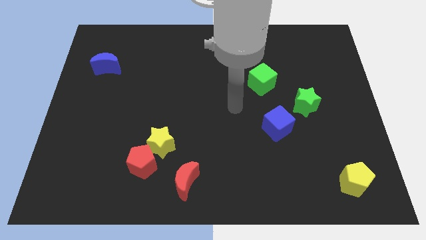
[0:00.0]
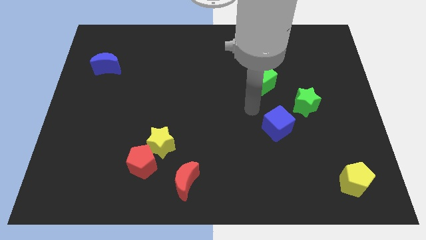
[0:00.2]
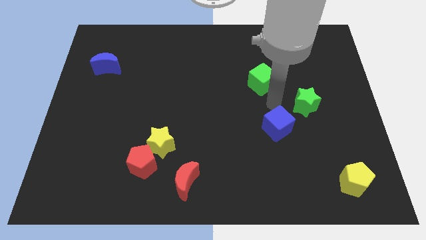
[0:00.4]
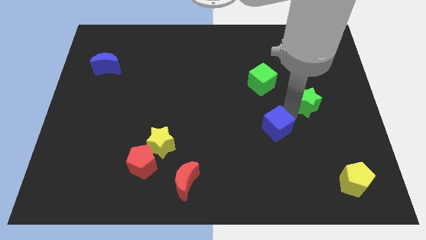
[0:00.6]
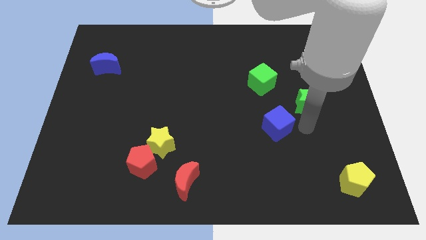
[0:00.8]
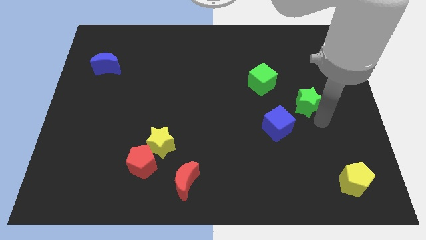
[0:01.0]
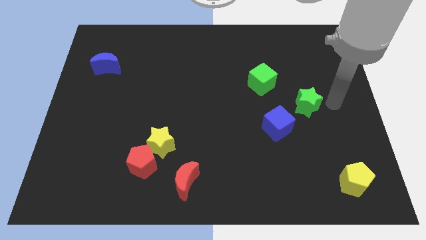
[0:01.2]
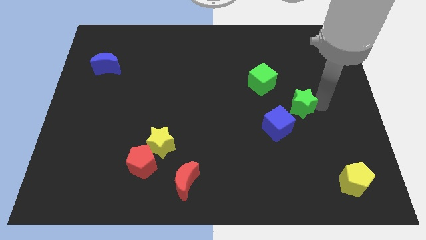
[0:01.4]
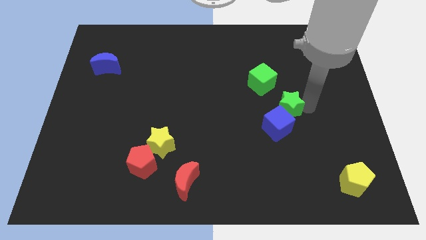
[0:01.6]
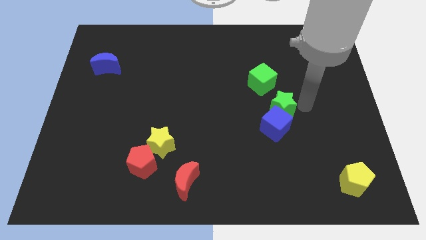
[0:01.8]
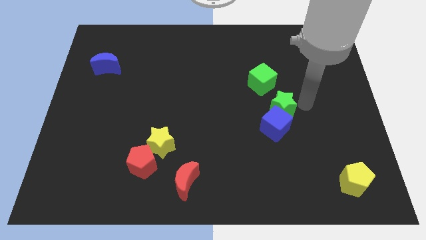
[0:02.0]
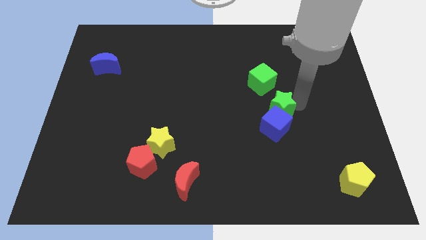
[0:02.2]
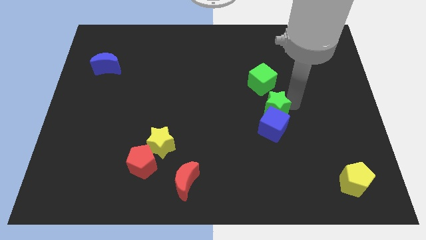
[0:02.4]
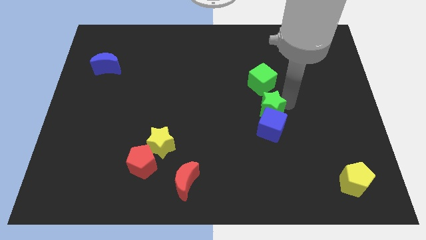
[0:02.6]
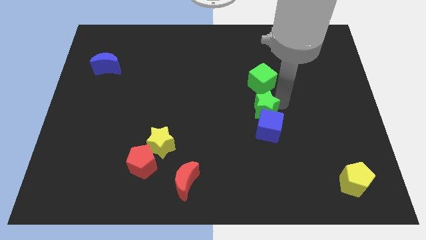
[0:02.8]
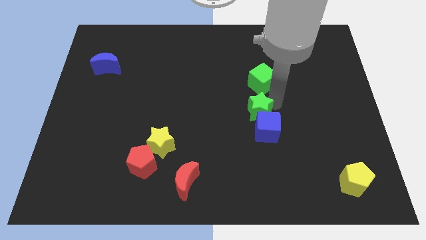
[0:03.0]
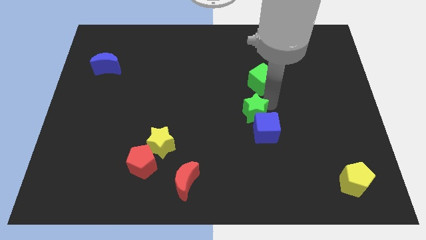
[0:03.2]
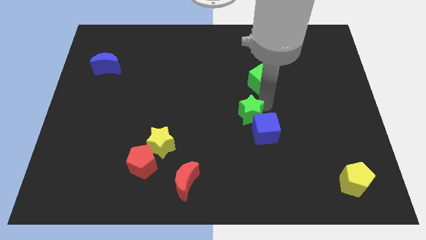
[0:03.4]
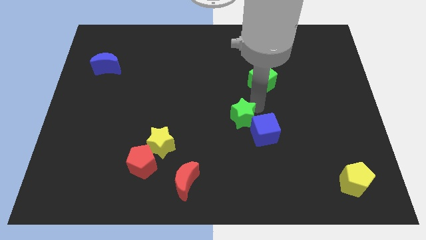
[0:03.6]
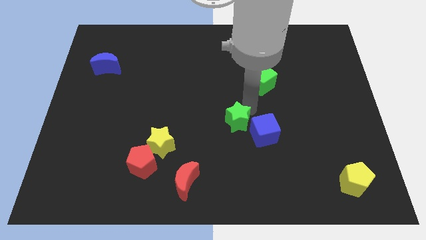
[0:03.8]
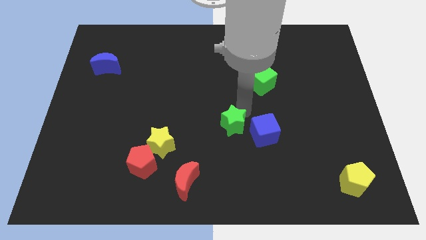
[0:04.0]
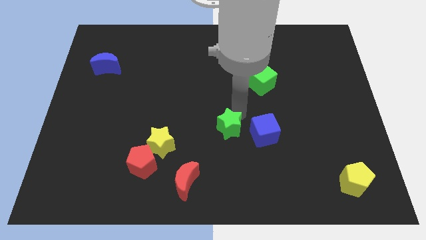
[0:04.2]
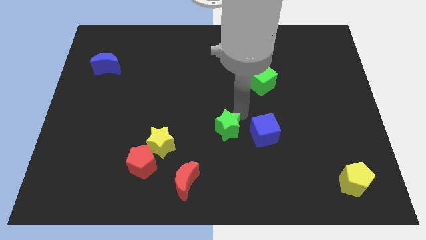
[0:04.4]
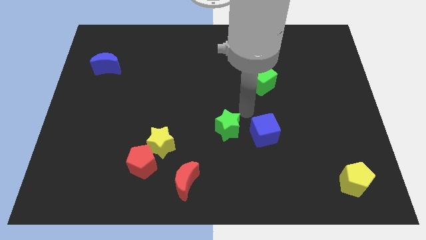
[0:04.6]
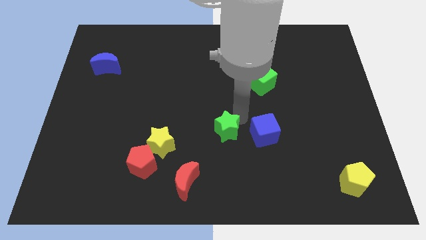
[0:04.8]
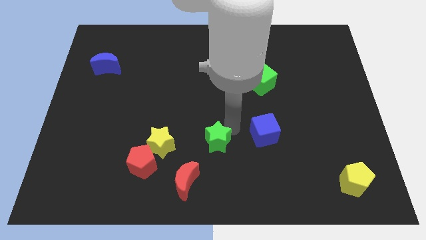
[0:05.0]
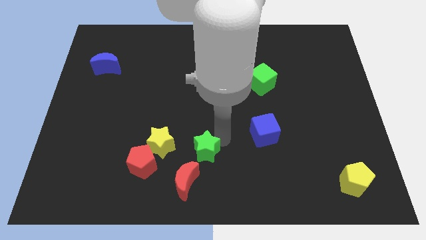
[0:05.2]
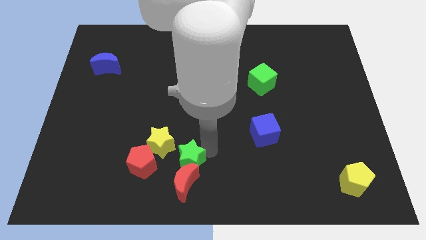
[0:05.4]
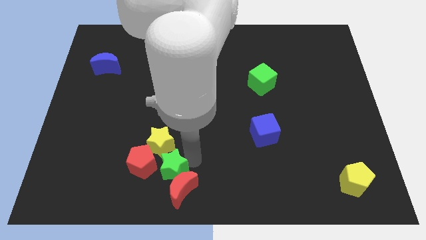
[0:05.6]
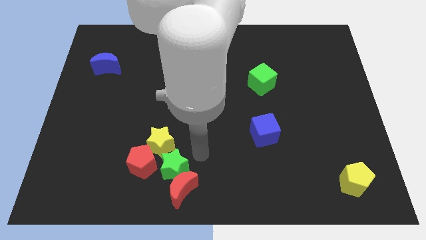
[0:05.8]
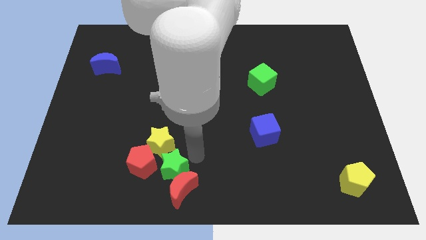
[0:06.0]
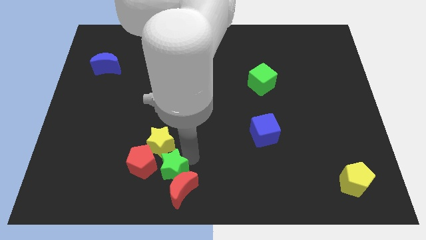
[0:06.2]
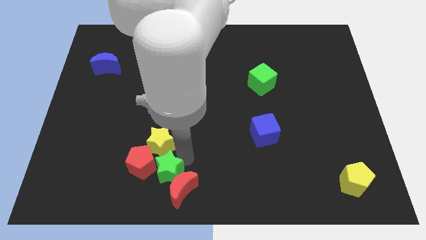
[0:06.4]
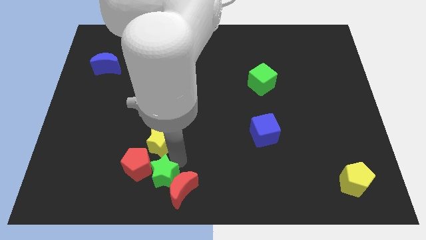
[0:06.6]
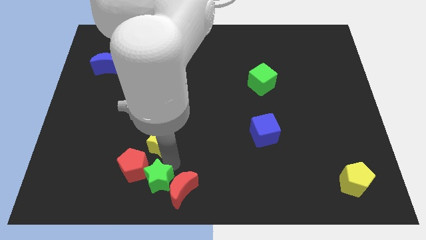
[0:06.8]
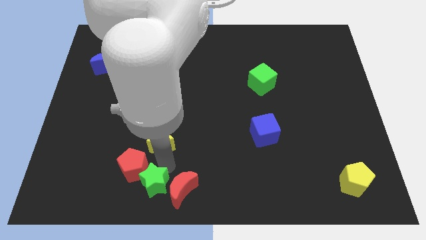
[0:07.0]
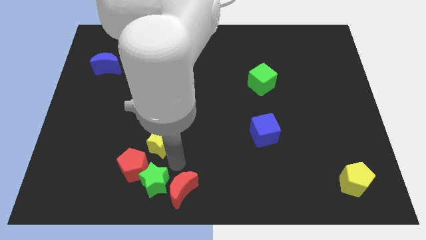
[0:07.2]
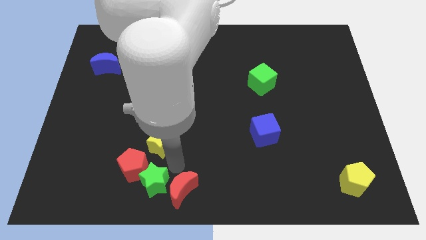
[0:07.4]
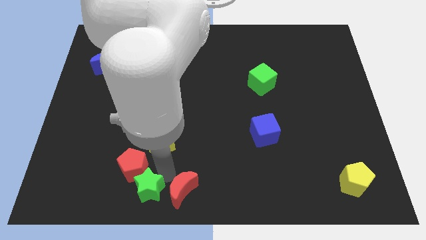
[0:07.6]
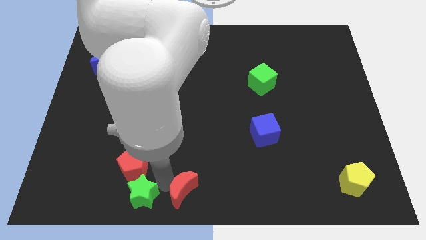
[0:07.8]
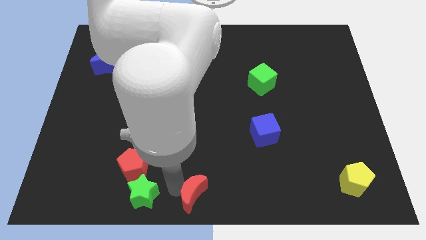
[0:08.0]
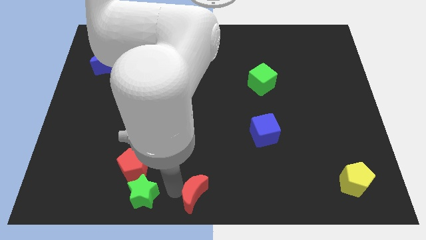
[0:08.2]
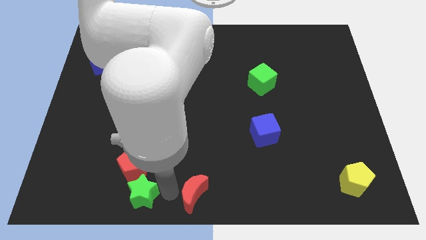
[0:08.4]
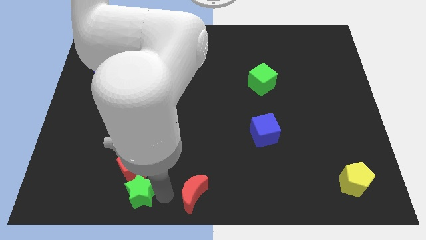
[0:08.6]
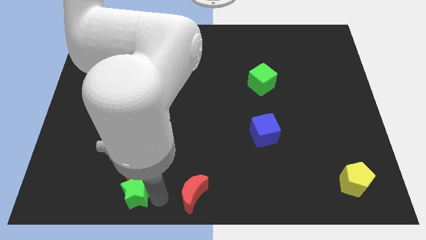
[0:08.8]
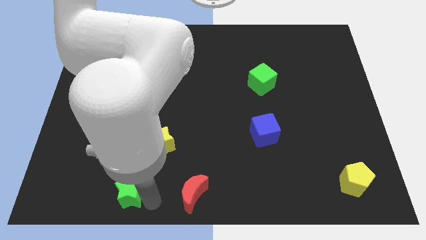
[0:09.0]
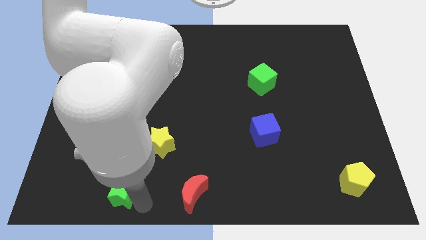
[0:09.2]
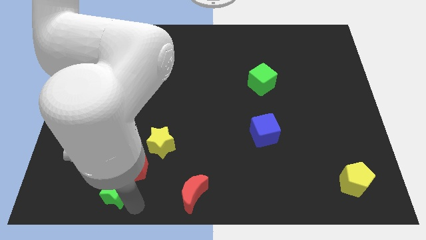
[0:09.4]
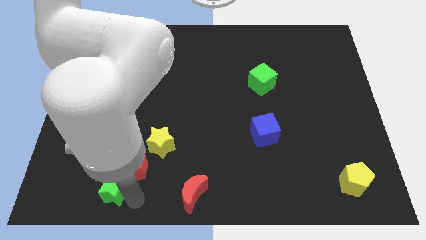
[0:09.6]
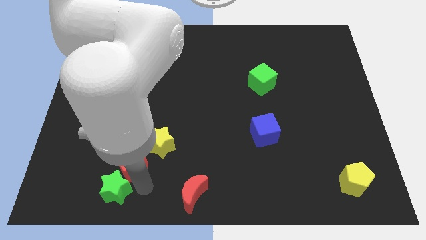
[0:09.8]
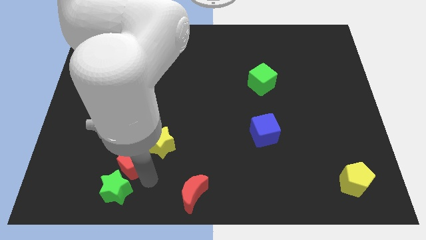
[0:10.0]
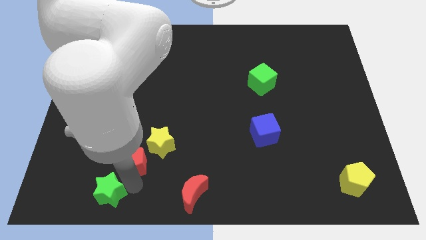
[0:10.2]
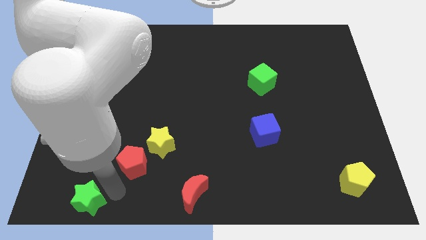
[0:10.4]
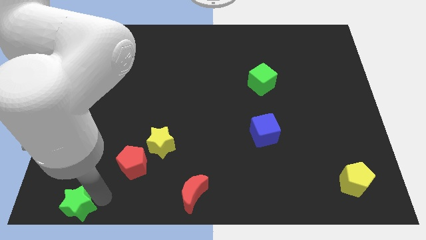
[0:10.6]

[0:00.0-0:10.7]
put the green star to the lower left corner

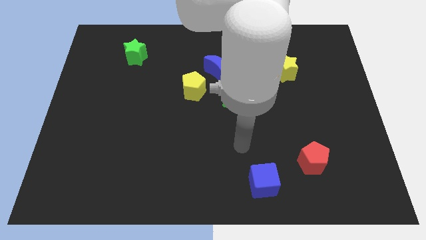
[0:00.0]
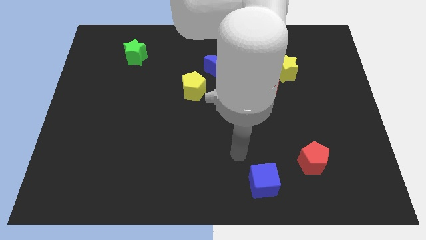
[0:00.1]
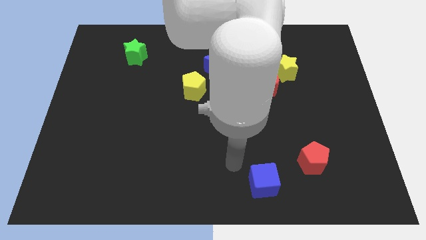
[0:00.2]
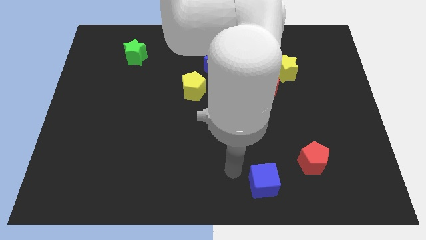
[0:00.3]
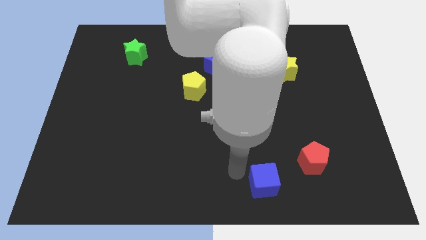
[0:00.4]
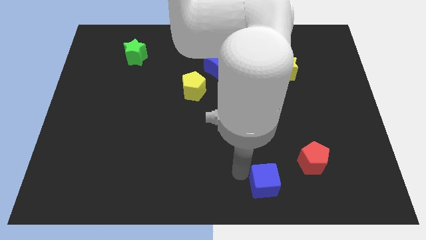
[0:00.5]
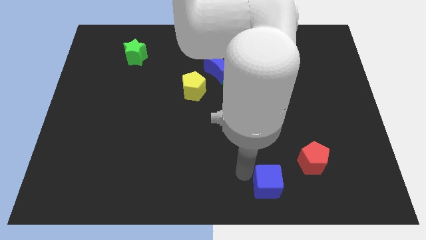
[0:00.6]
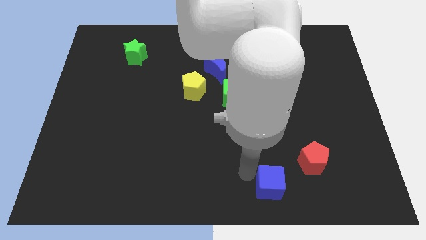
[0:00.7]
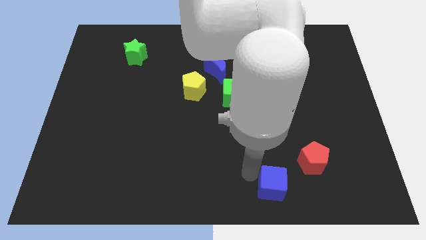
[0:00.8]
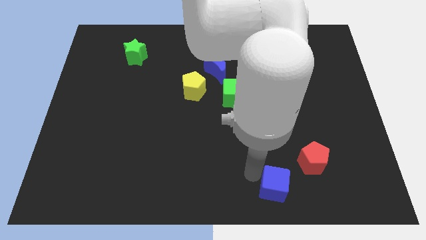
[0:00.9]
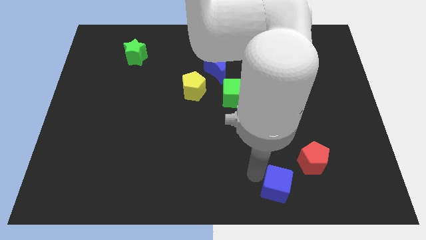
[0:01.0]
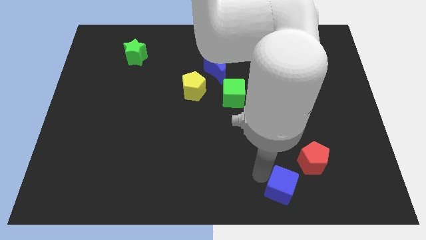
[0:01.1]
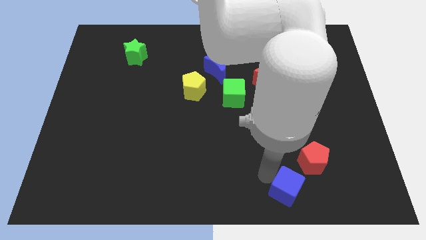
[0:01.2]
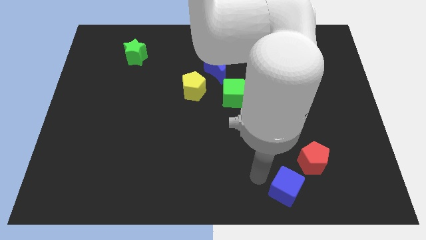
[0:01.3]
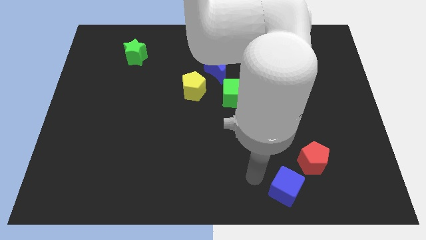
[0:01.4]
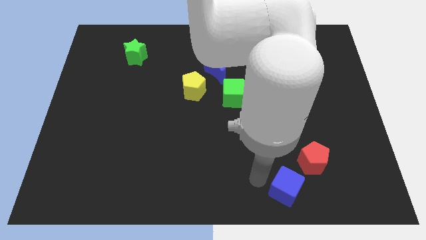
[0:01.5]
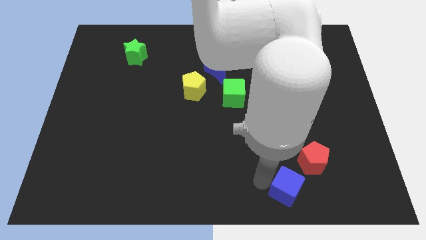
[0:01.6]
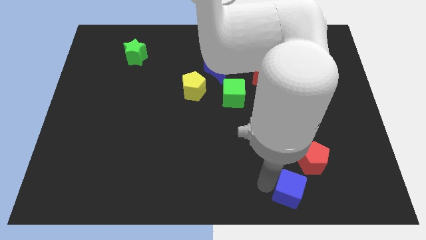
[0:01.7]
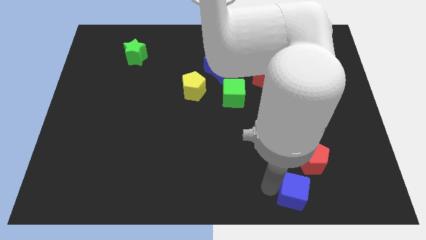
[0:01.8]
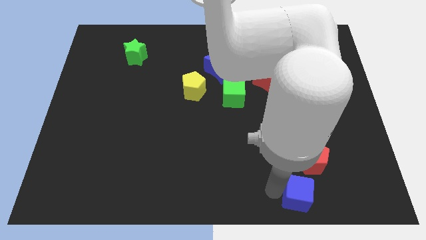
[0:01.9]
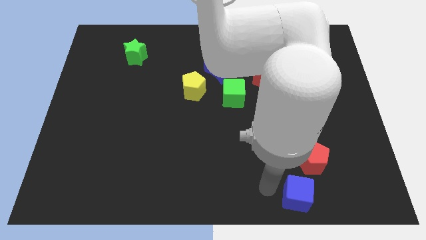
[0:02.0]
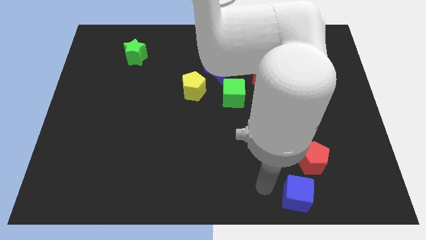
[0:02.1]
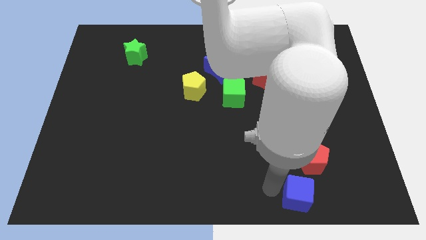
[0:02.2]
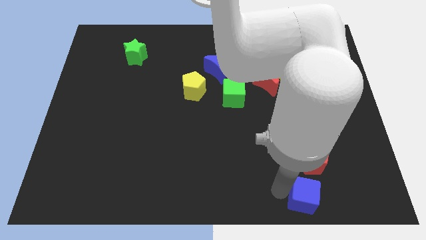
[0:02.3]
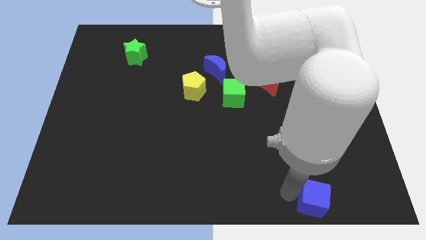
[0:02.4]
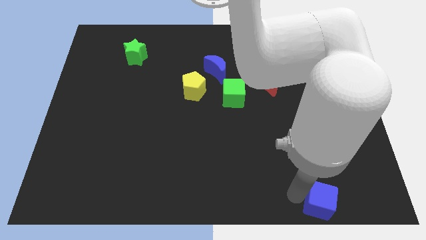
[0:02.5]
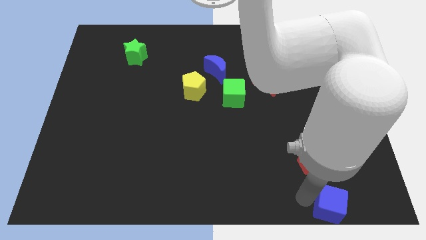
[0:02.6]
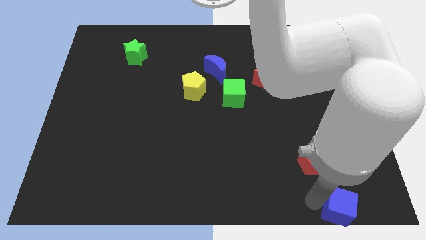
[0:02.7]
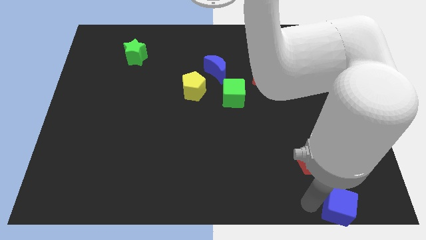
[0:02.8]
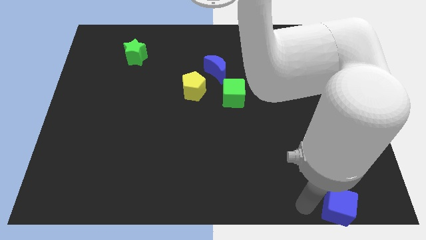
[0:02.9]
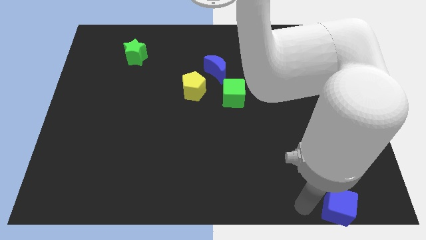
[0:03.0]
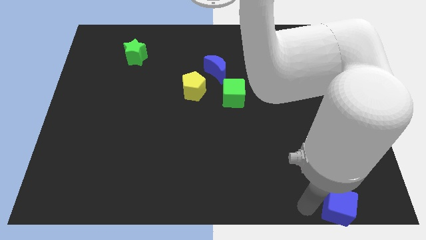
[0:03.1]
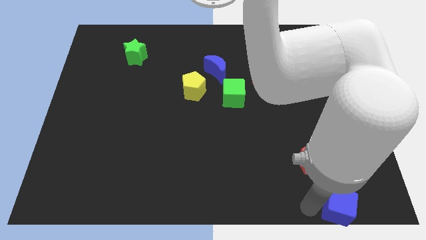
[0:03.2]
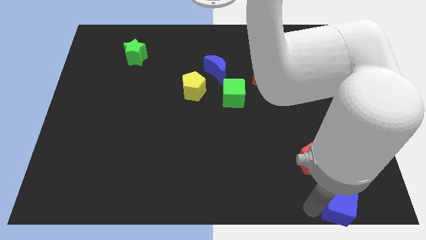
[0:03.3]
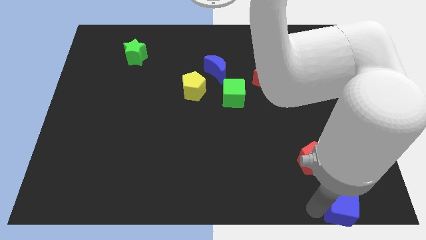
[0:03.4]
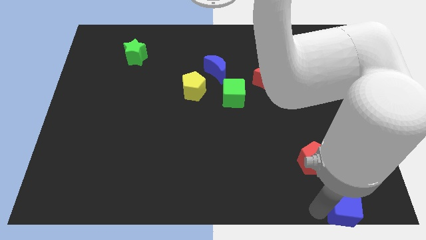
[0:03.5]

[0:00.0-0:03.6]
push the blue cube to the bottom right corner
